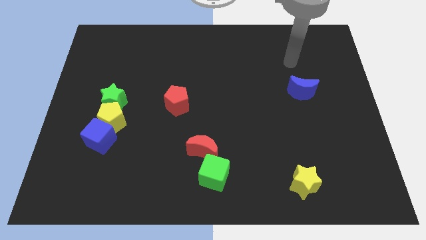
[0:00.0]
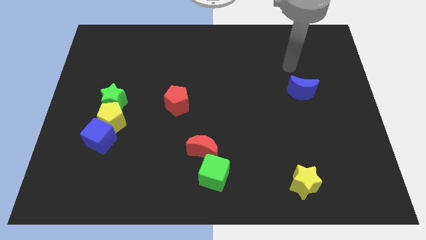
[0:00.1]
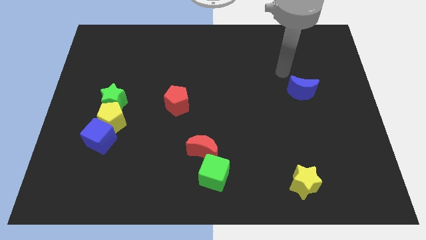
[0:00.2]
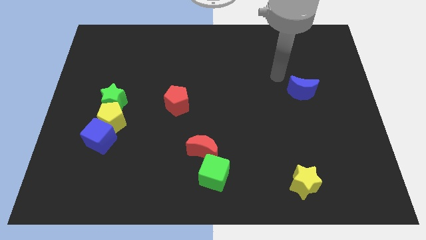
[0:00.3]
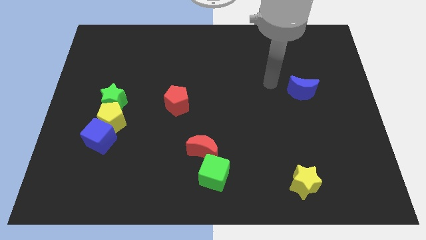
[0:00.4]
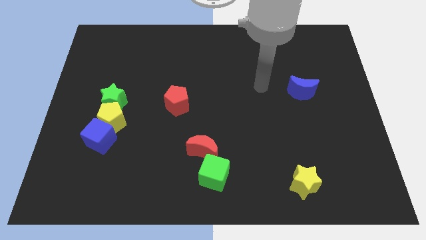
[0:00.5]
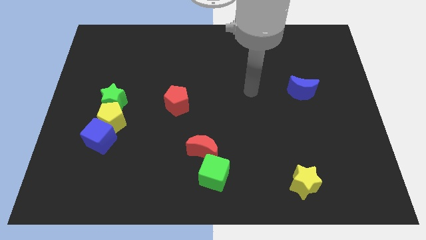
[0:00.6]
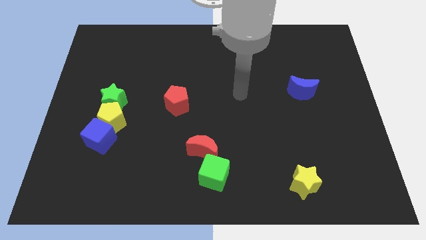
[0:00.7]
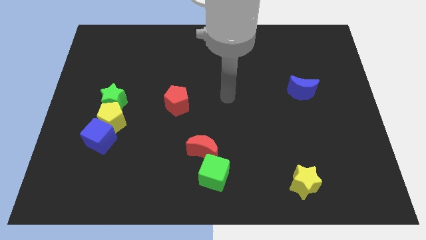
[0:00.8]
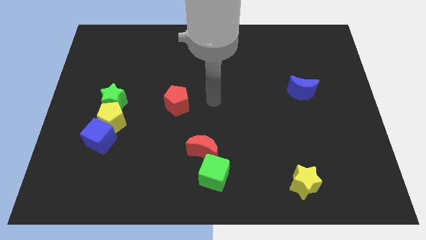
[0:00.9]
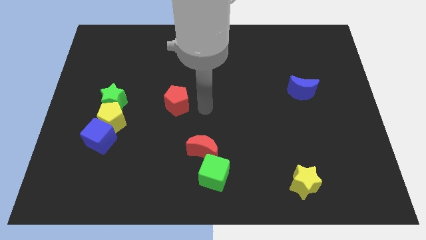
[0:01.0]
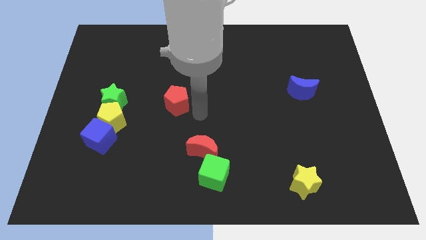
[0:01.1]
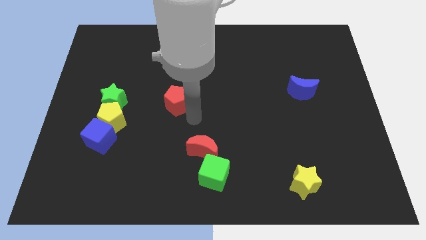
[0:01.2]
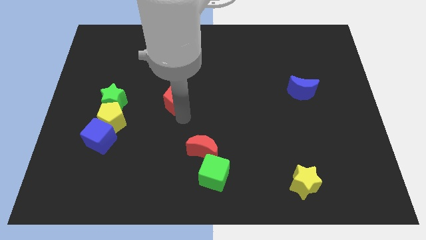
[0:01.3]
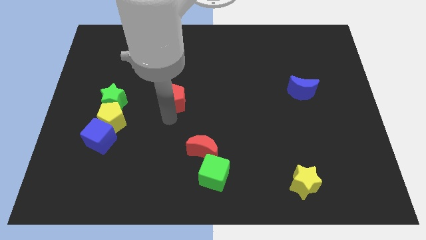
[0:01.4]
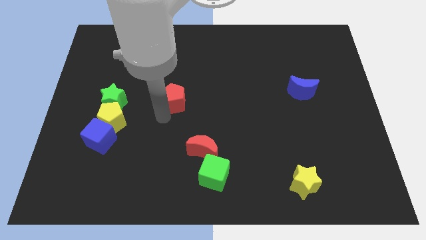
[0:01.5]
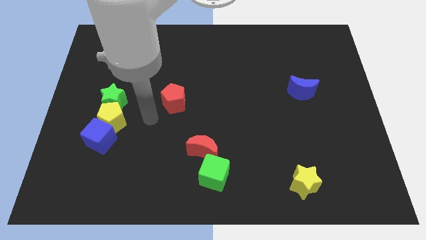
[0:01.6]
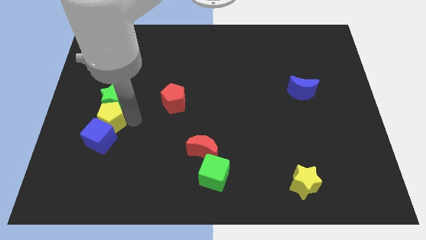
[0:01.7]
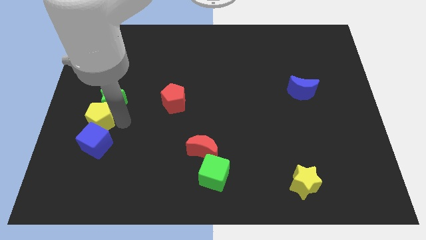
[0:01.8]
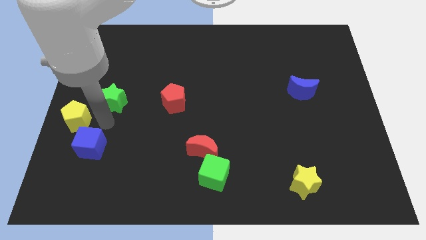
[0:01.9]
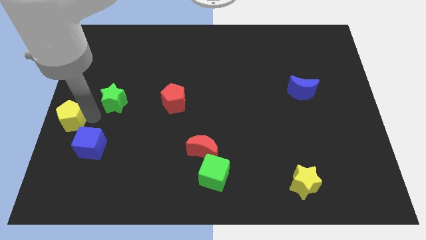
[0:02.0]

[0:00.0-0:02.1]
separate the green star from the yellow pentagon

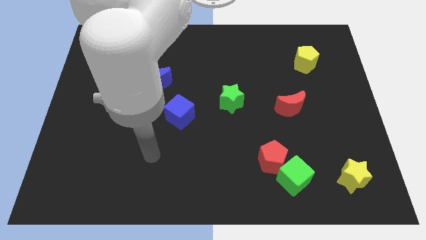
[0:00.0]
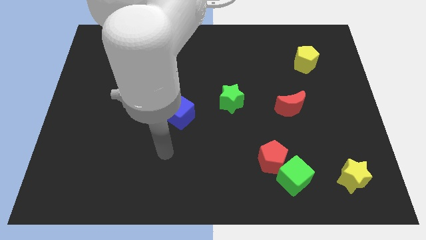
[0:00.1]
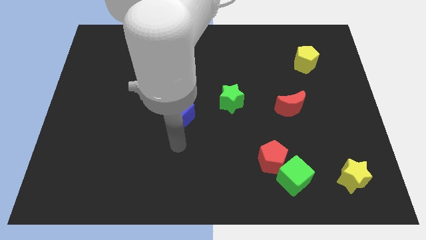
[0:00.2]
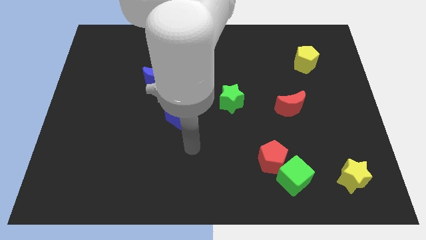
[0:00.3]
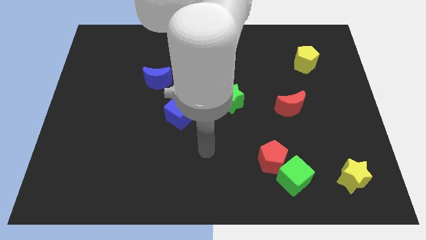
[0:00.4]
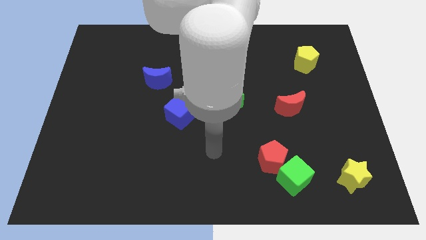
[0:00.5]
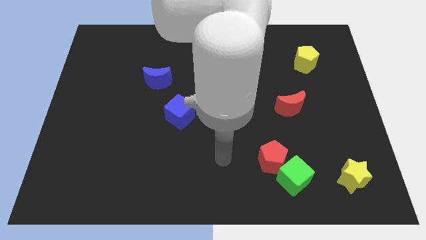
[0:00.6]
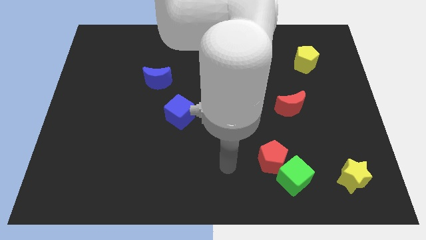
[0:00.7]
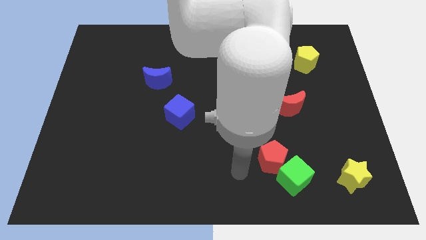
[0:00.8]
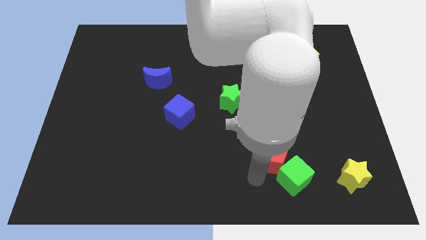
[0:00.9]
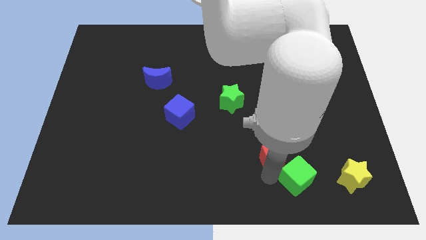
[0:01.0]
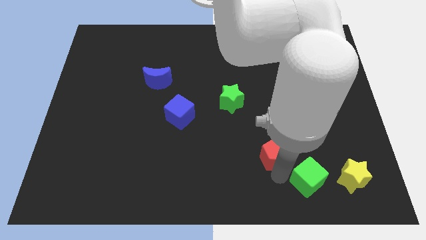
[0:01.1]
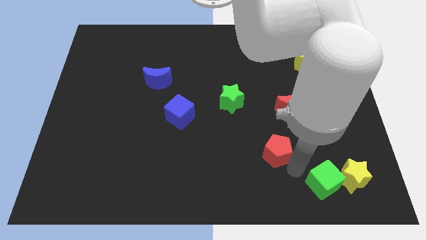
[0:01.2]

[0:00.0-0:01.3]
pull the red pentagon apart from the green cube

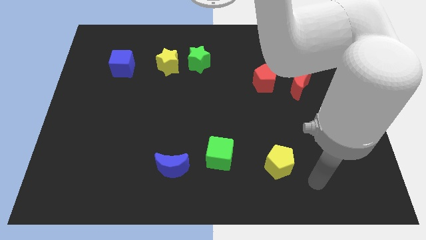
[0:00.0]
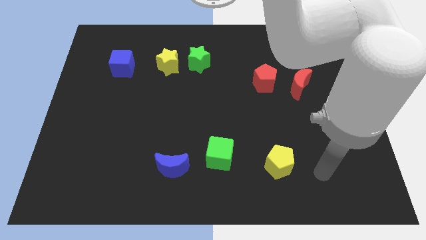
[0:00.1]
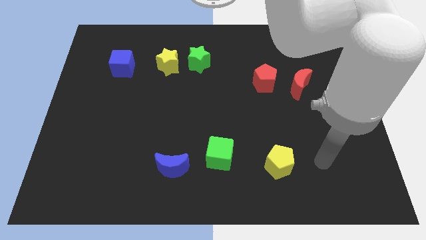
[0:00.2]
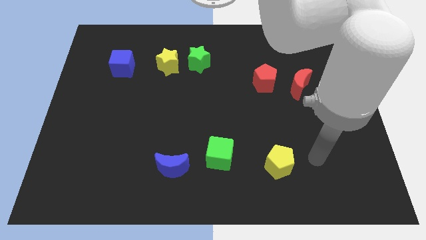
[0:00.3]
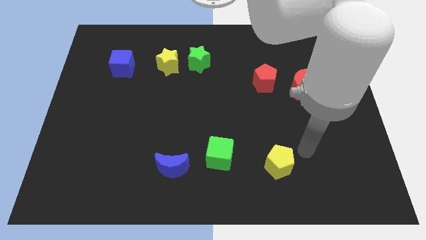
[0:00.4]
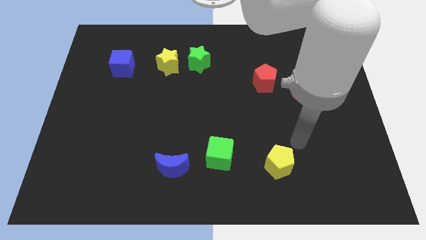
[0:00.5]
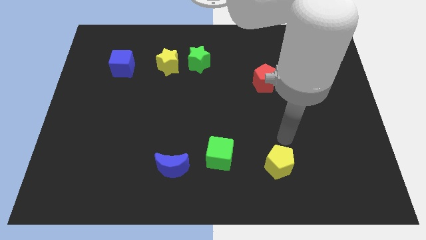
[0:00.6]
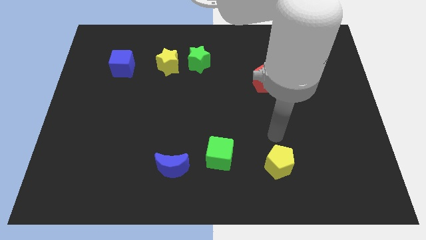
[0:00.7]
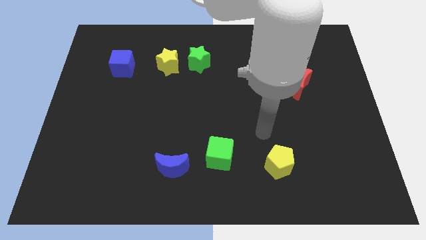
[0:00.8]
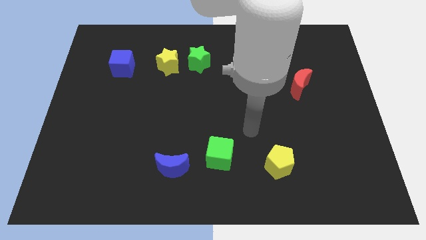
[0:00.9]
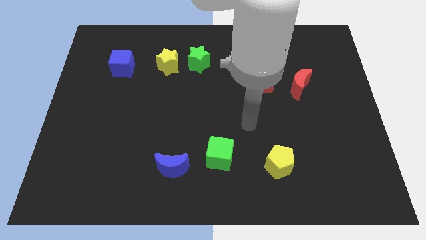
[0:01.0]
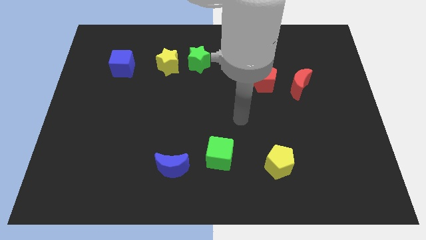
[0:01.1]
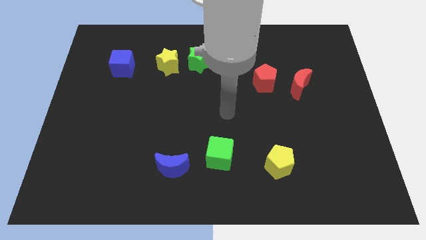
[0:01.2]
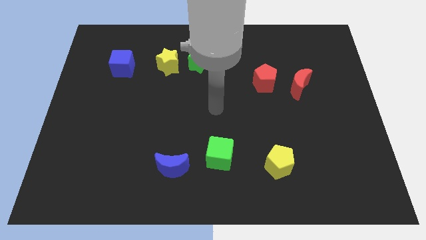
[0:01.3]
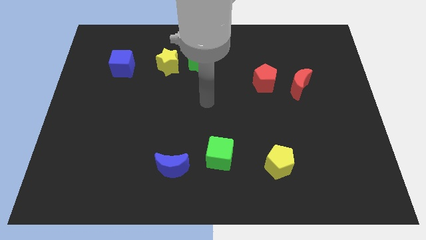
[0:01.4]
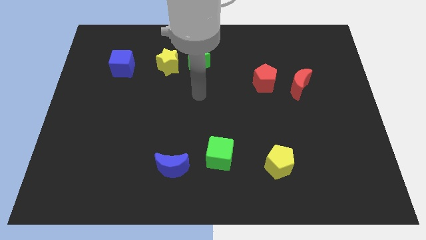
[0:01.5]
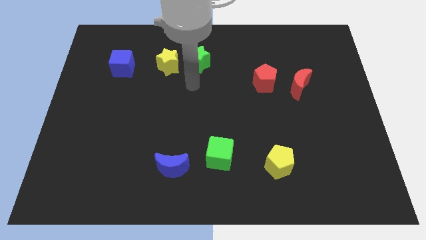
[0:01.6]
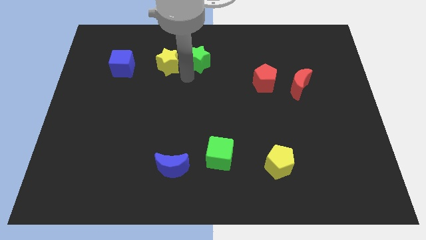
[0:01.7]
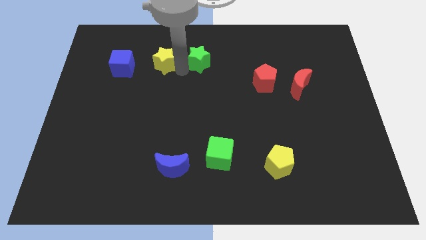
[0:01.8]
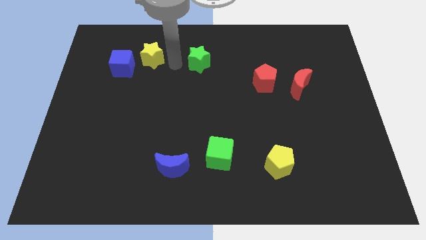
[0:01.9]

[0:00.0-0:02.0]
move the green star away from the yellow star

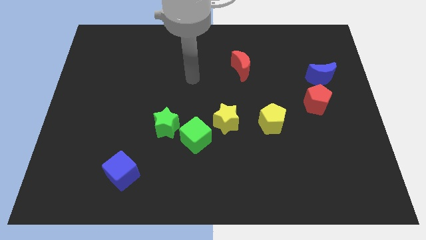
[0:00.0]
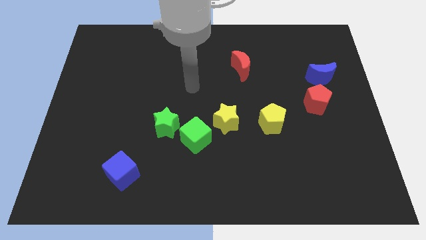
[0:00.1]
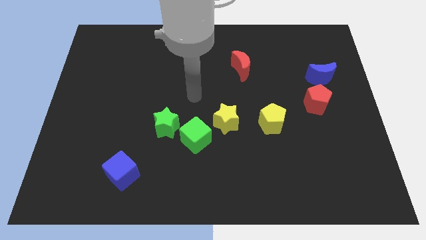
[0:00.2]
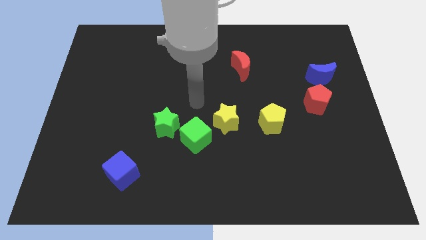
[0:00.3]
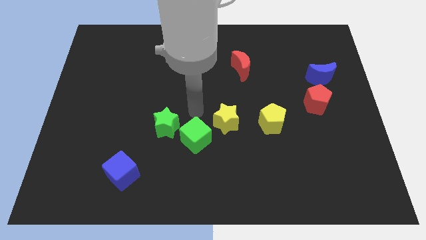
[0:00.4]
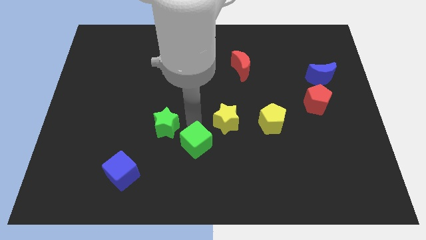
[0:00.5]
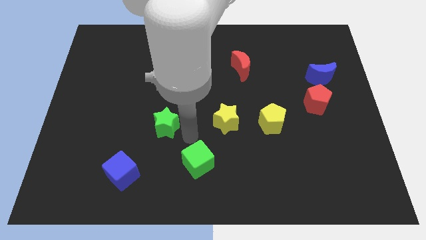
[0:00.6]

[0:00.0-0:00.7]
separate the green star from the green cube

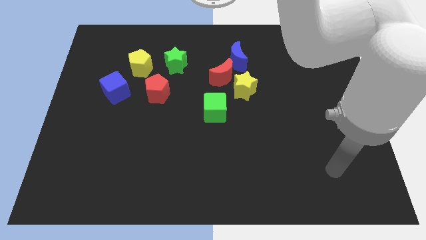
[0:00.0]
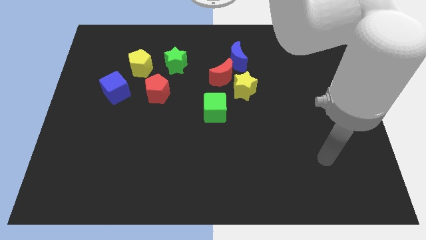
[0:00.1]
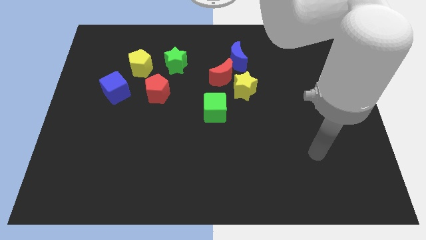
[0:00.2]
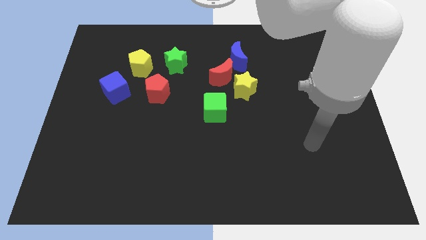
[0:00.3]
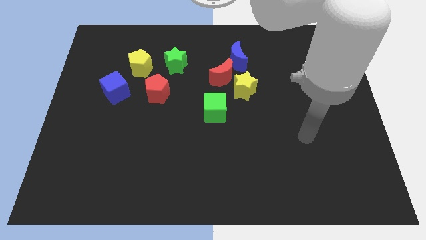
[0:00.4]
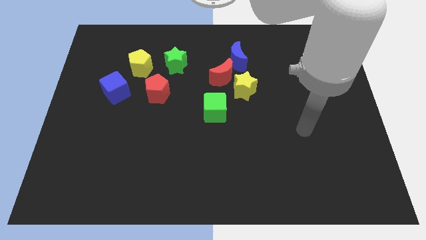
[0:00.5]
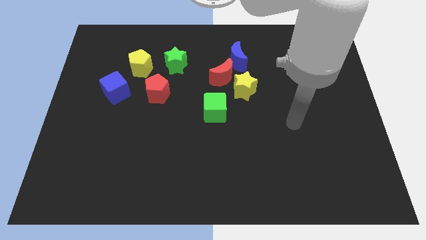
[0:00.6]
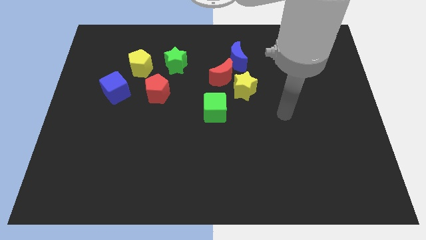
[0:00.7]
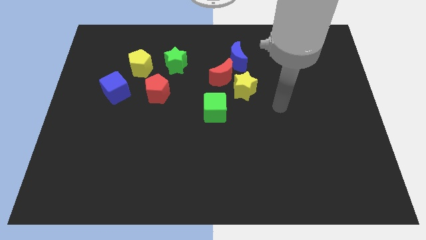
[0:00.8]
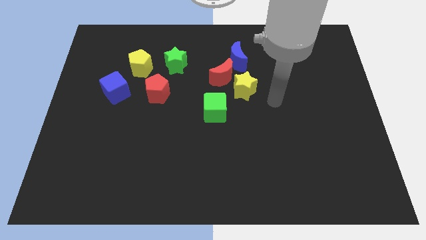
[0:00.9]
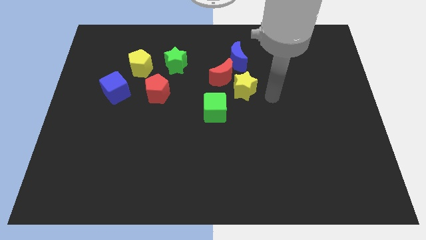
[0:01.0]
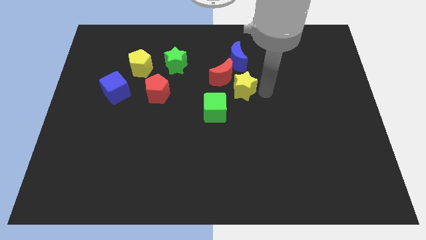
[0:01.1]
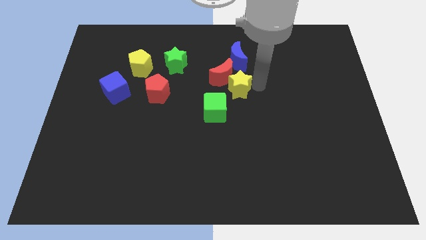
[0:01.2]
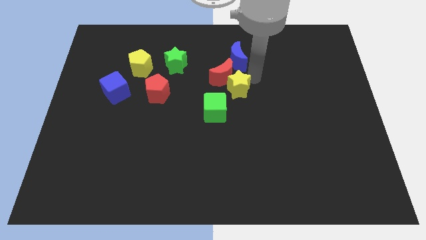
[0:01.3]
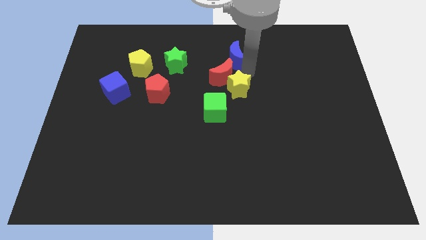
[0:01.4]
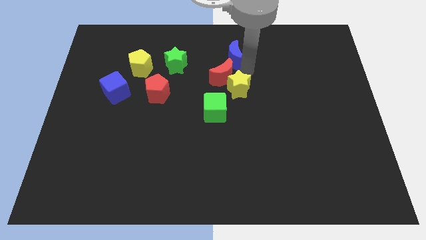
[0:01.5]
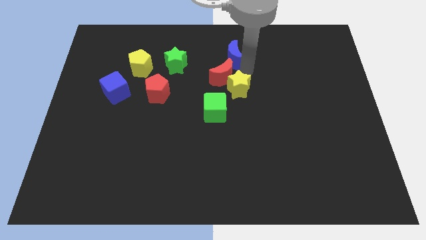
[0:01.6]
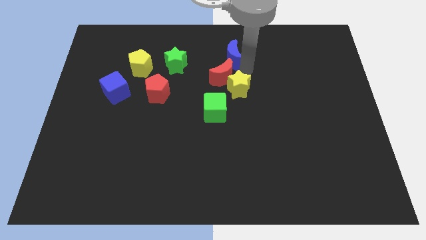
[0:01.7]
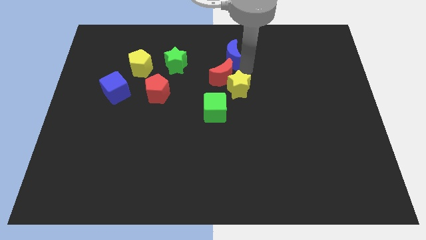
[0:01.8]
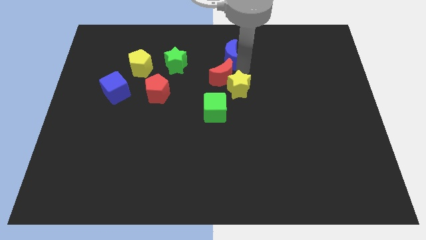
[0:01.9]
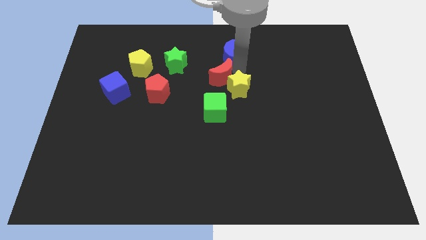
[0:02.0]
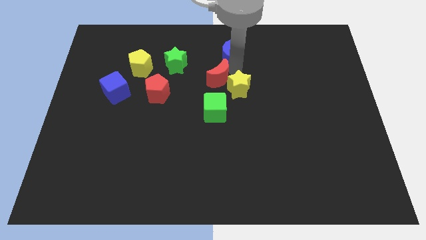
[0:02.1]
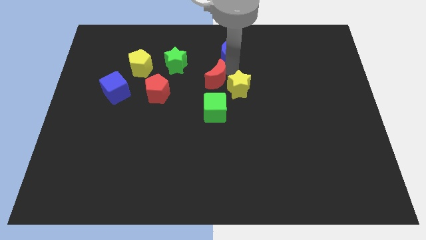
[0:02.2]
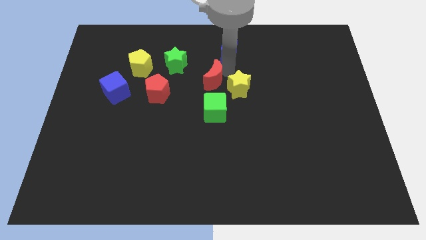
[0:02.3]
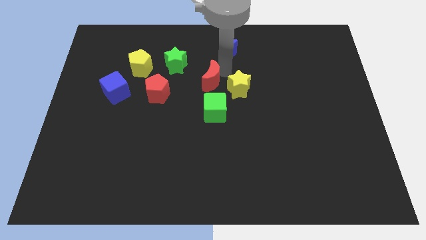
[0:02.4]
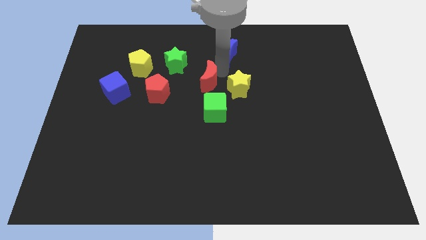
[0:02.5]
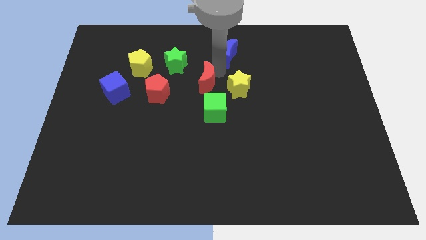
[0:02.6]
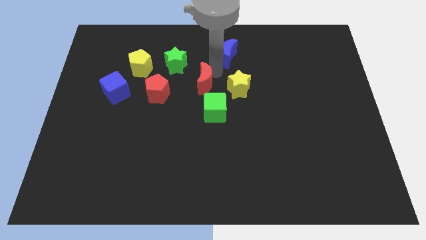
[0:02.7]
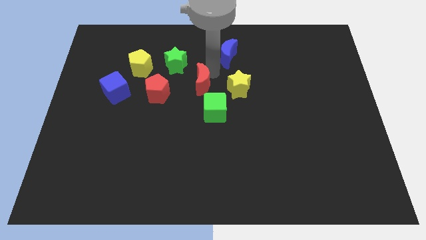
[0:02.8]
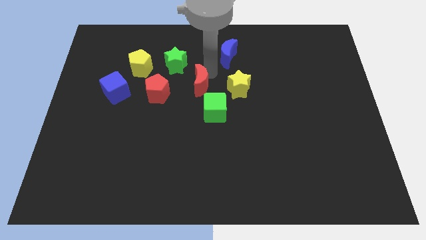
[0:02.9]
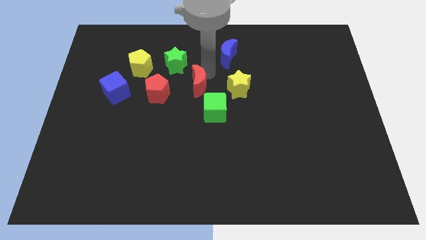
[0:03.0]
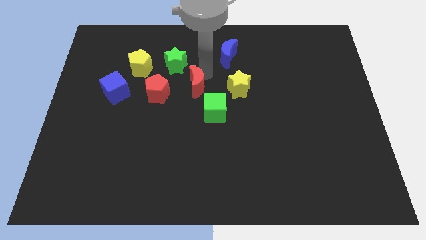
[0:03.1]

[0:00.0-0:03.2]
separate the red moon from the yellow star and blue moon
